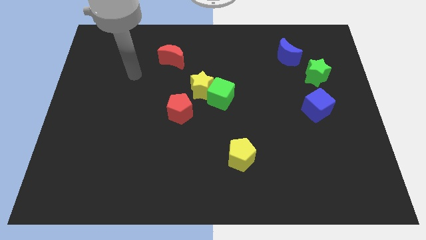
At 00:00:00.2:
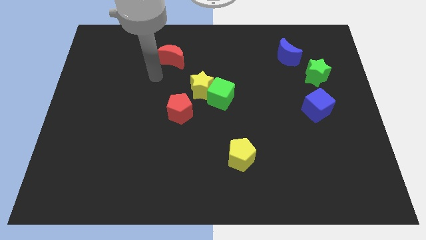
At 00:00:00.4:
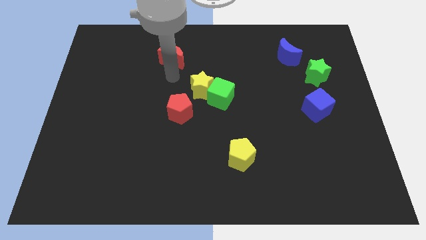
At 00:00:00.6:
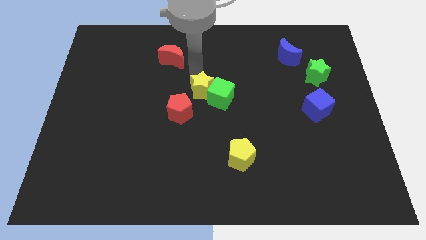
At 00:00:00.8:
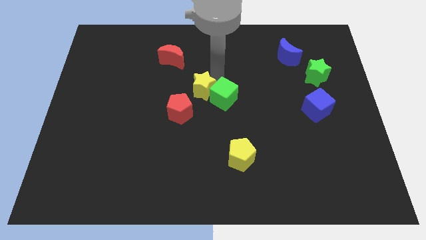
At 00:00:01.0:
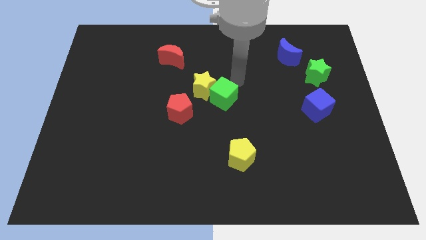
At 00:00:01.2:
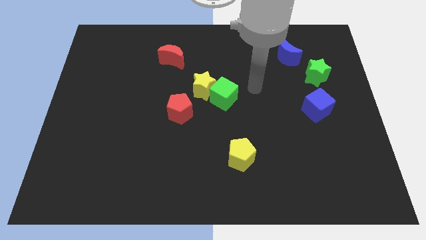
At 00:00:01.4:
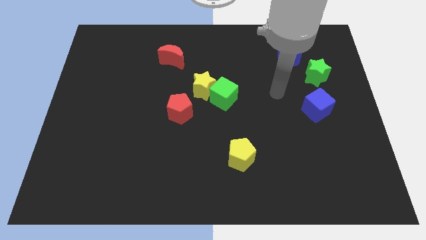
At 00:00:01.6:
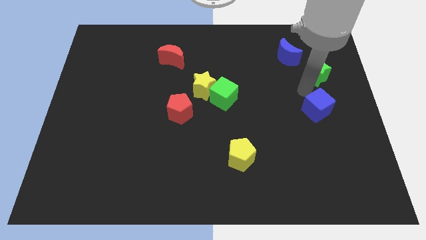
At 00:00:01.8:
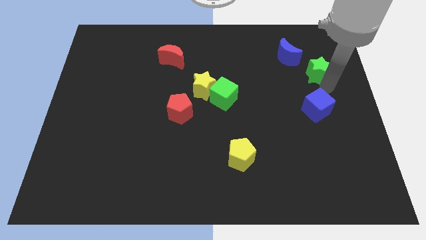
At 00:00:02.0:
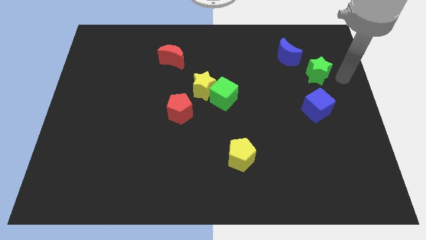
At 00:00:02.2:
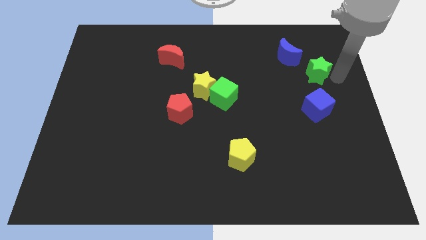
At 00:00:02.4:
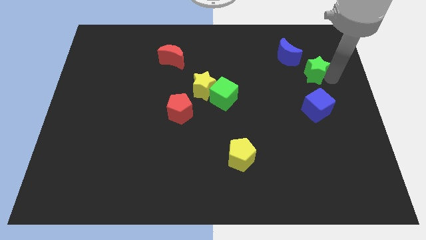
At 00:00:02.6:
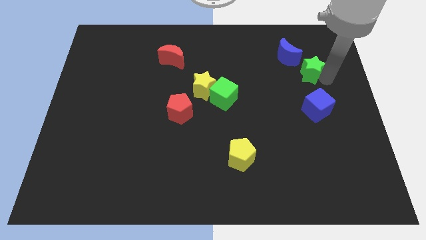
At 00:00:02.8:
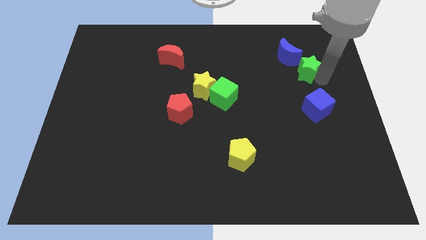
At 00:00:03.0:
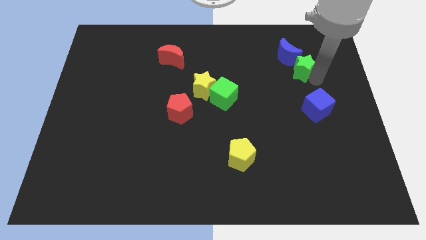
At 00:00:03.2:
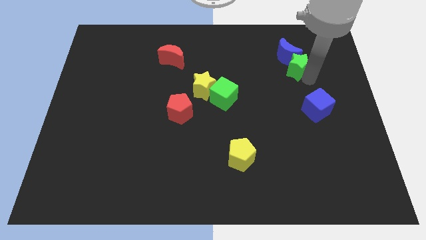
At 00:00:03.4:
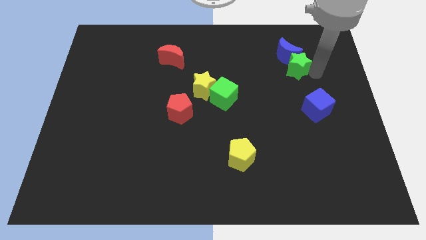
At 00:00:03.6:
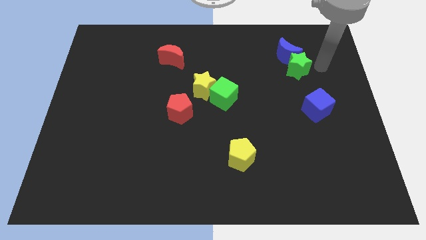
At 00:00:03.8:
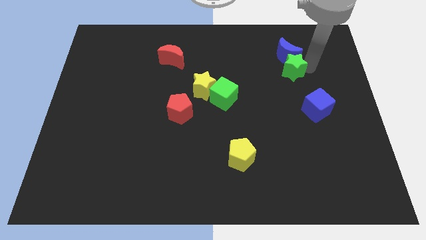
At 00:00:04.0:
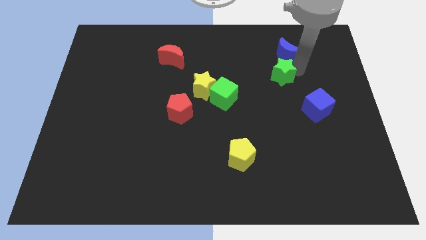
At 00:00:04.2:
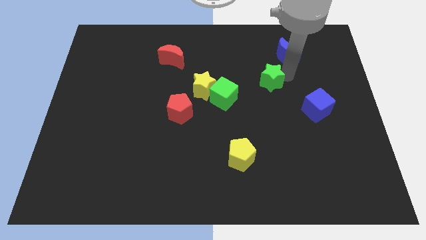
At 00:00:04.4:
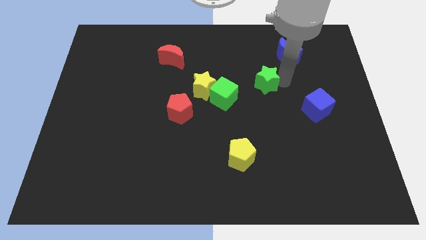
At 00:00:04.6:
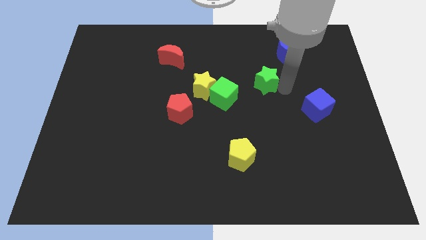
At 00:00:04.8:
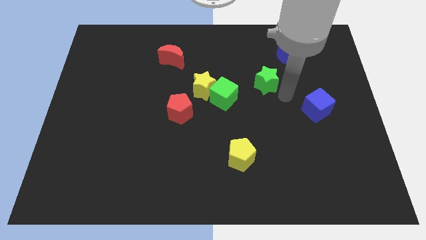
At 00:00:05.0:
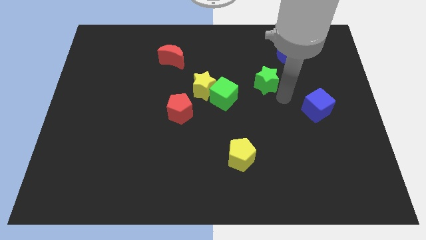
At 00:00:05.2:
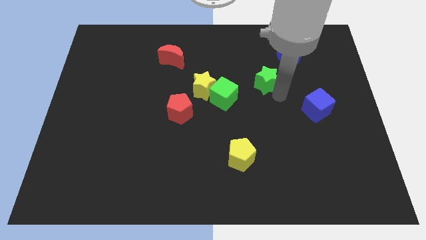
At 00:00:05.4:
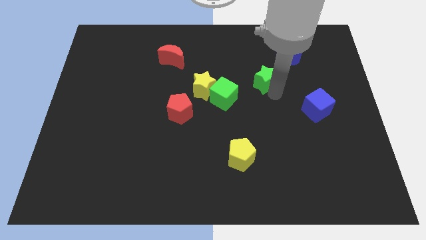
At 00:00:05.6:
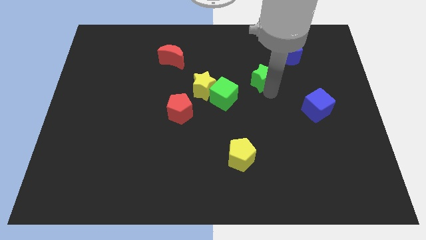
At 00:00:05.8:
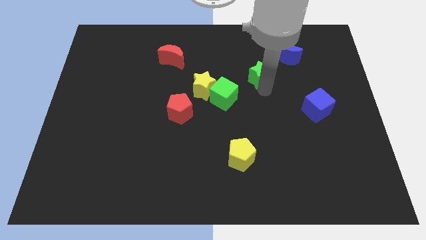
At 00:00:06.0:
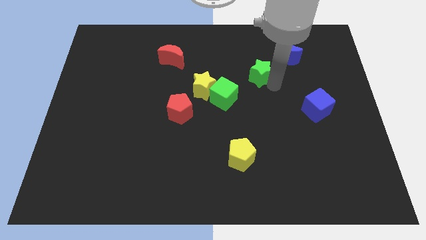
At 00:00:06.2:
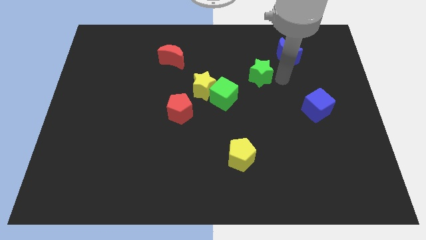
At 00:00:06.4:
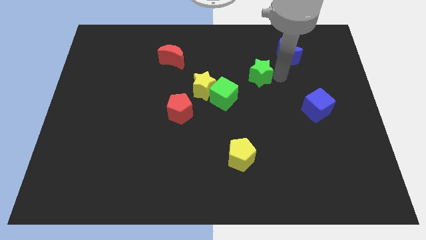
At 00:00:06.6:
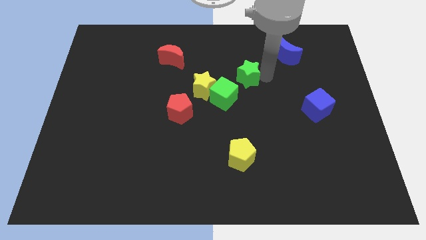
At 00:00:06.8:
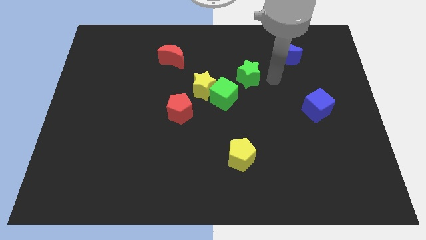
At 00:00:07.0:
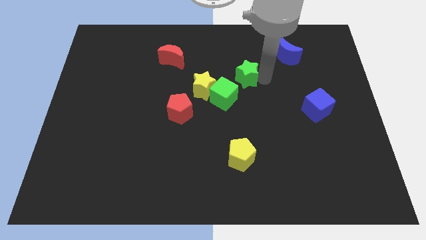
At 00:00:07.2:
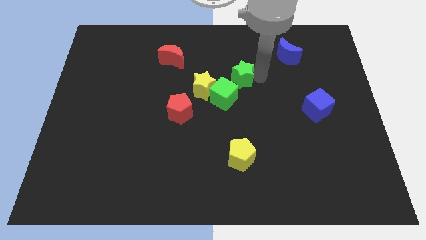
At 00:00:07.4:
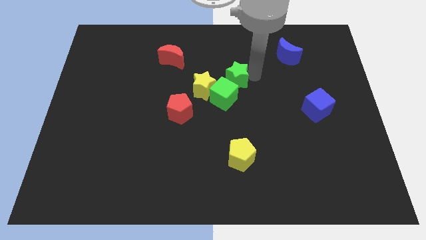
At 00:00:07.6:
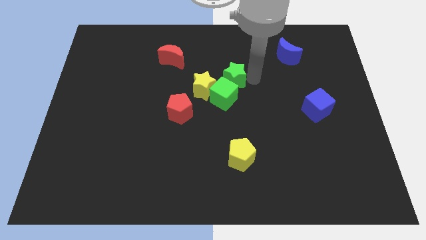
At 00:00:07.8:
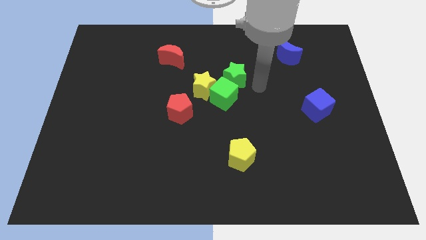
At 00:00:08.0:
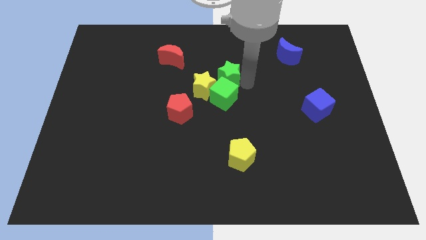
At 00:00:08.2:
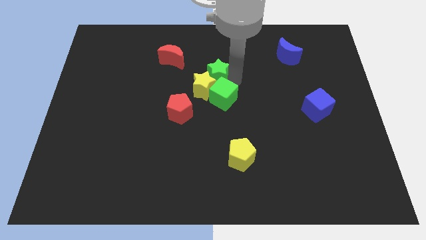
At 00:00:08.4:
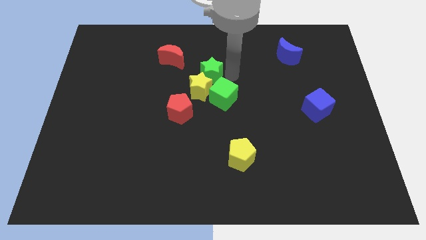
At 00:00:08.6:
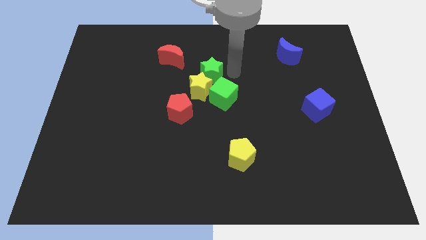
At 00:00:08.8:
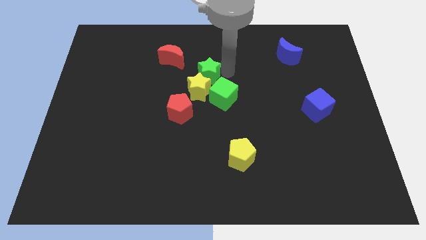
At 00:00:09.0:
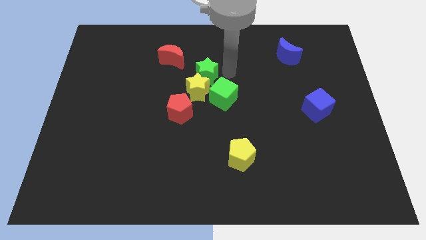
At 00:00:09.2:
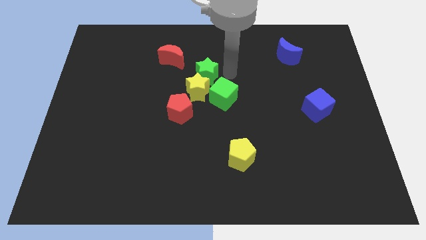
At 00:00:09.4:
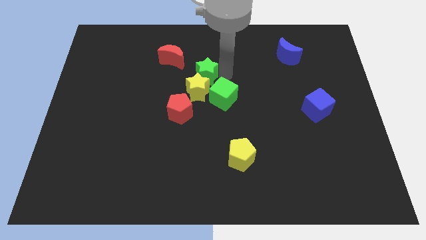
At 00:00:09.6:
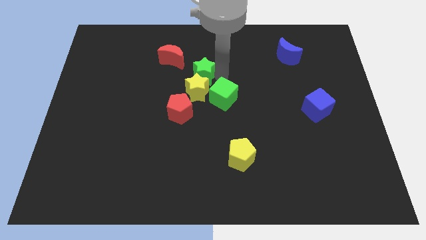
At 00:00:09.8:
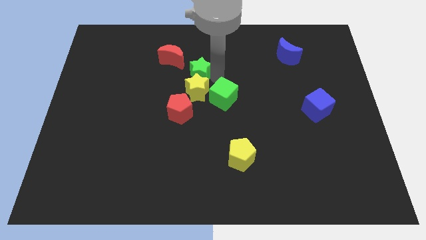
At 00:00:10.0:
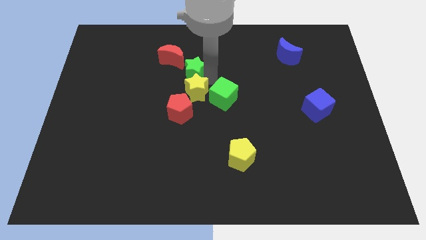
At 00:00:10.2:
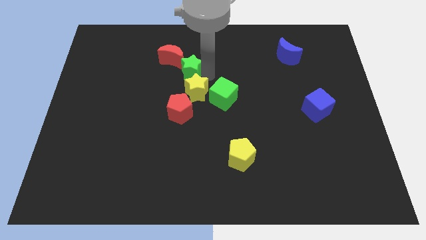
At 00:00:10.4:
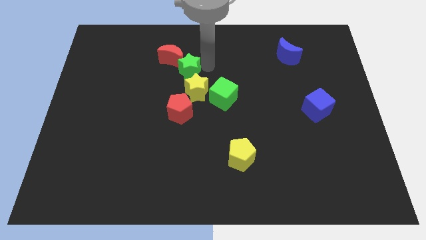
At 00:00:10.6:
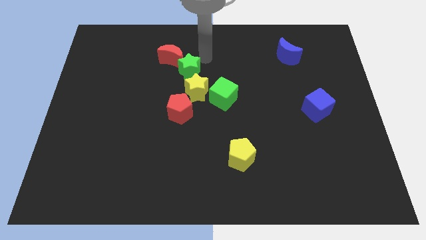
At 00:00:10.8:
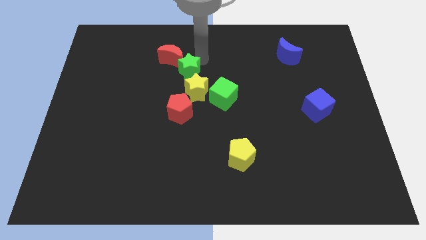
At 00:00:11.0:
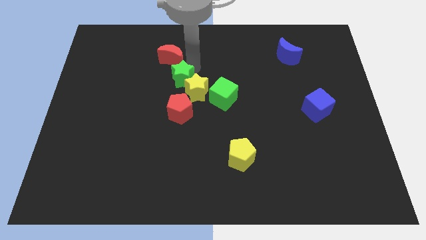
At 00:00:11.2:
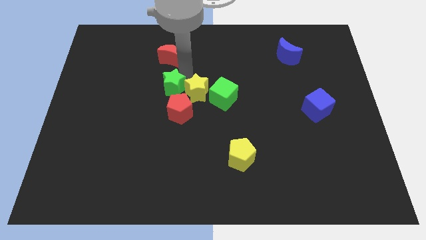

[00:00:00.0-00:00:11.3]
put the green star diagonally up and to the left of the red pentagon

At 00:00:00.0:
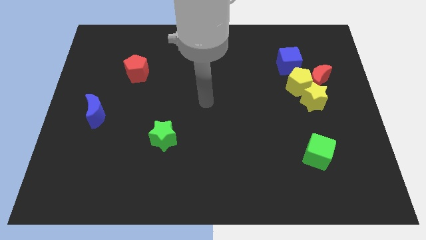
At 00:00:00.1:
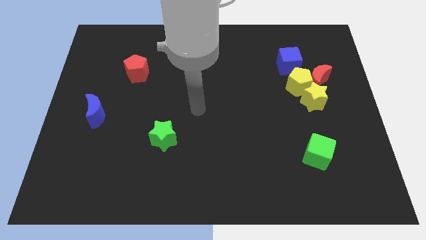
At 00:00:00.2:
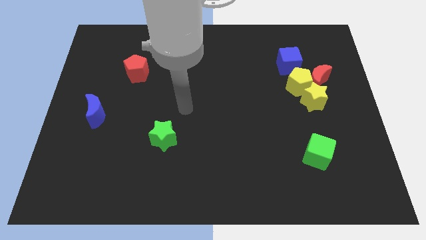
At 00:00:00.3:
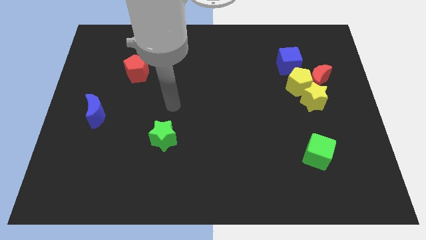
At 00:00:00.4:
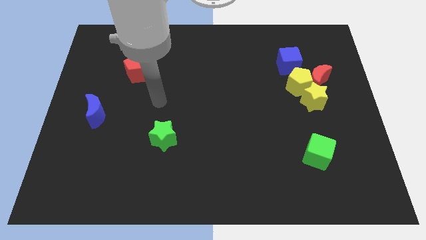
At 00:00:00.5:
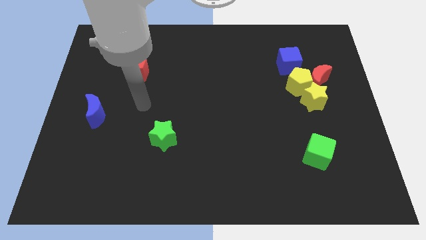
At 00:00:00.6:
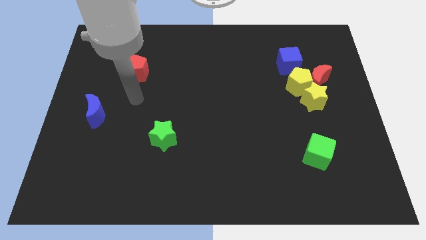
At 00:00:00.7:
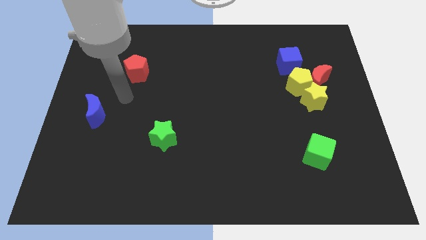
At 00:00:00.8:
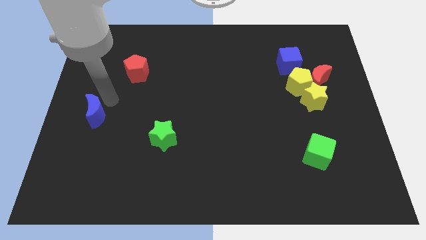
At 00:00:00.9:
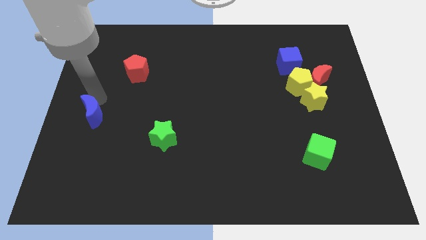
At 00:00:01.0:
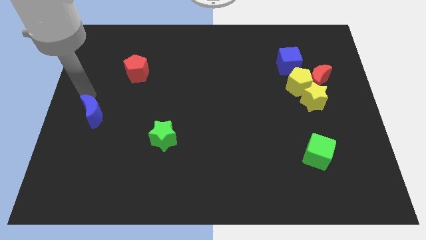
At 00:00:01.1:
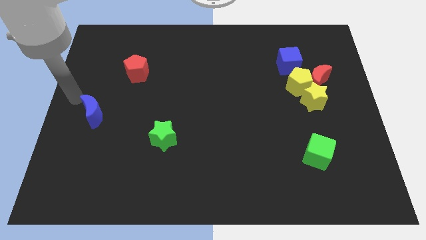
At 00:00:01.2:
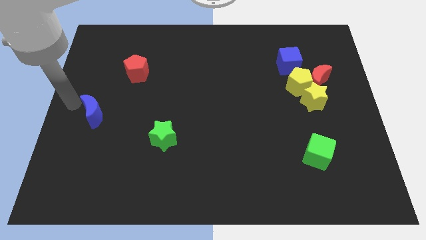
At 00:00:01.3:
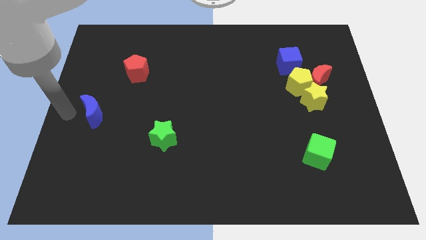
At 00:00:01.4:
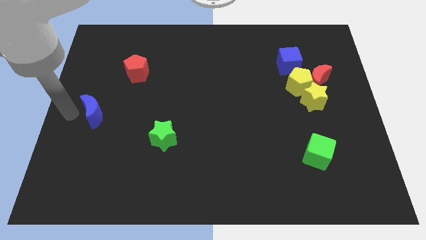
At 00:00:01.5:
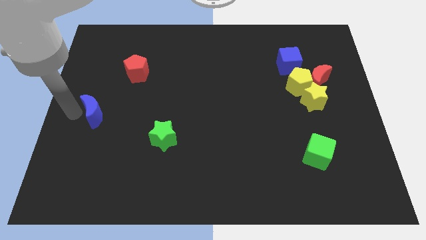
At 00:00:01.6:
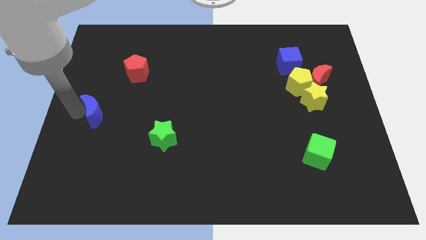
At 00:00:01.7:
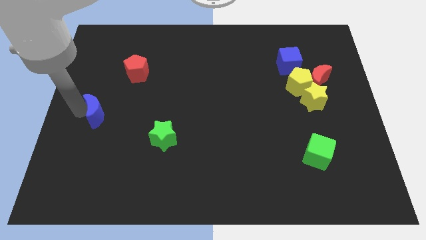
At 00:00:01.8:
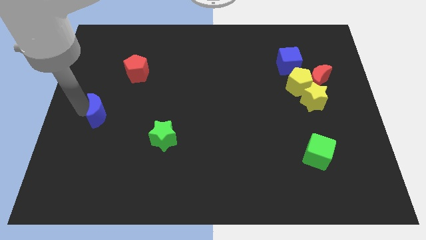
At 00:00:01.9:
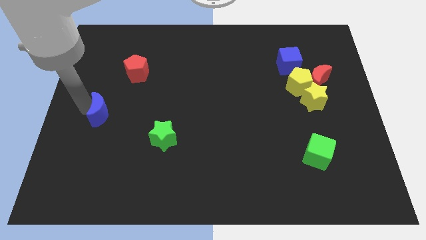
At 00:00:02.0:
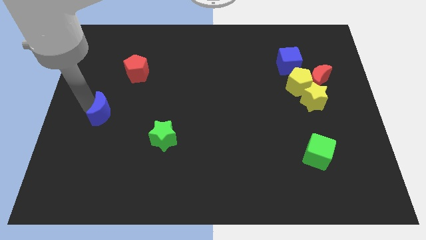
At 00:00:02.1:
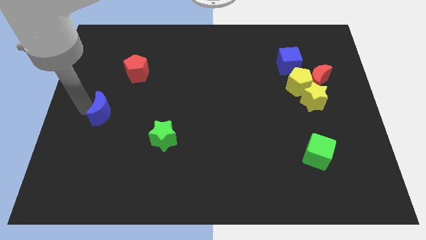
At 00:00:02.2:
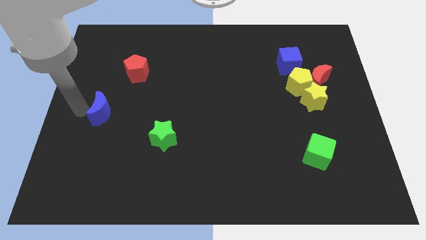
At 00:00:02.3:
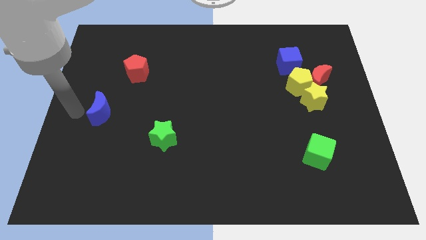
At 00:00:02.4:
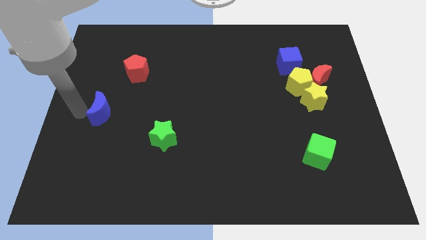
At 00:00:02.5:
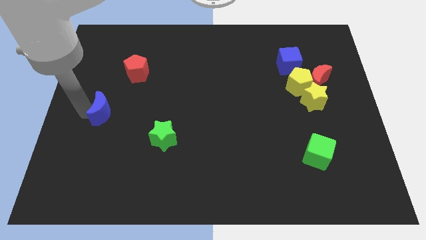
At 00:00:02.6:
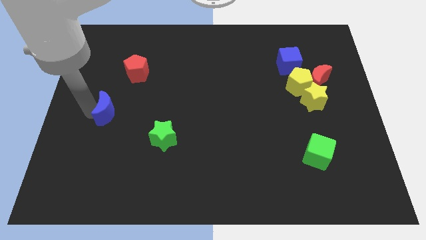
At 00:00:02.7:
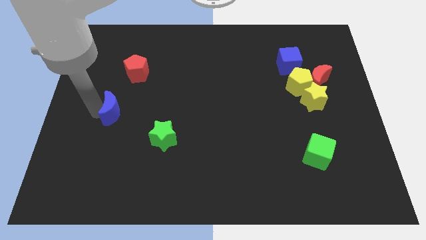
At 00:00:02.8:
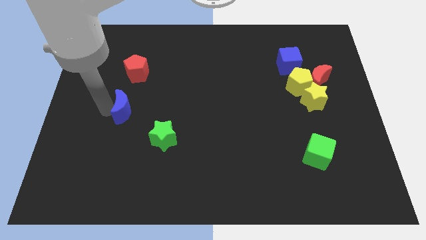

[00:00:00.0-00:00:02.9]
push the blue moon to the top left side of the green star
